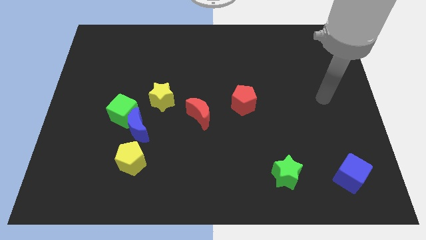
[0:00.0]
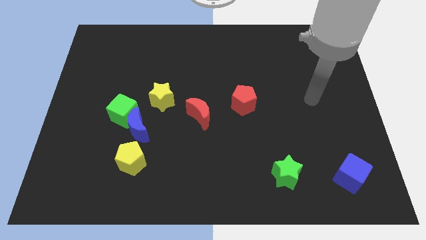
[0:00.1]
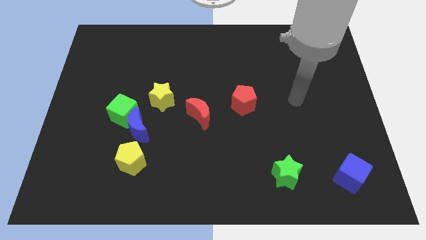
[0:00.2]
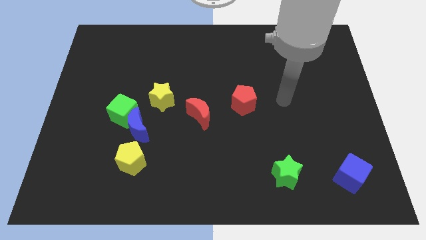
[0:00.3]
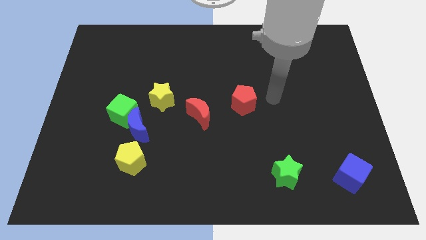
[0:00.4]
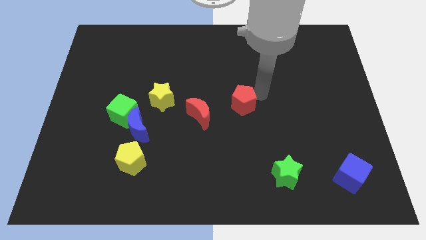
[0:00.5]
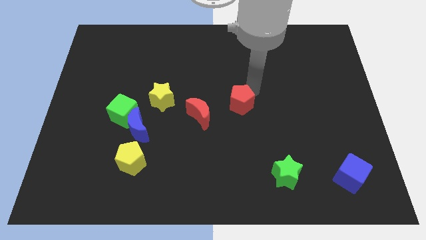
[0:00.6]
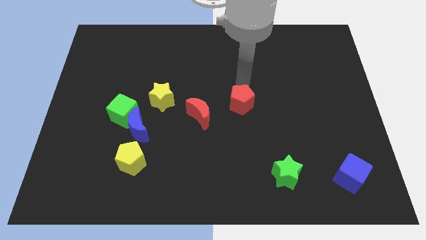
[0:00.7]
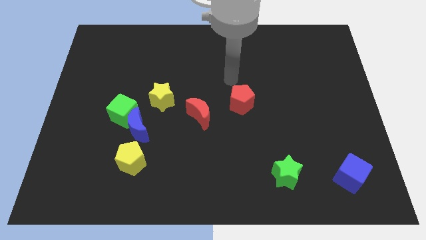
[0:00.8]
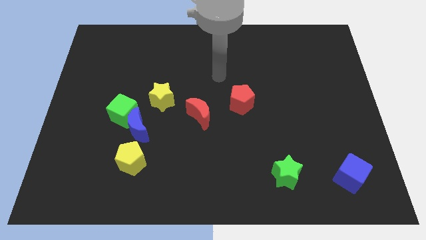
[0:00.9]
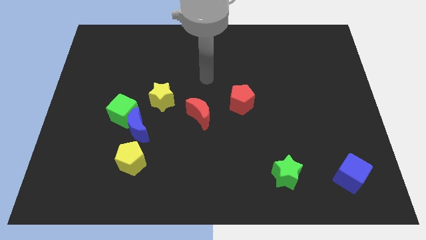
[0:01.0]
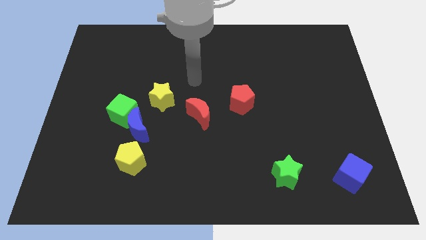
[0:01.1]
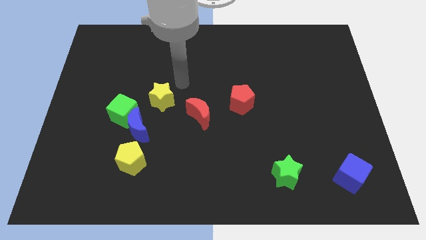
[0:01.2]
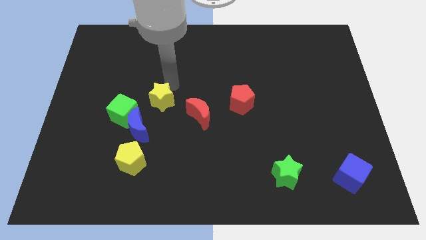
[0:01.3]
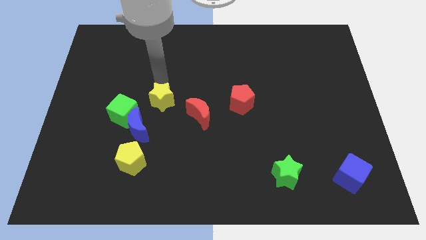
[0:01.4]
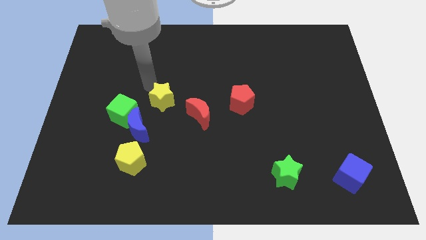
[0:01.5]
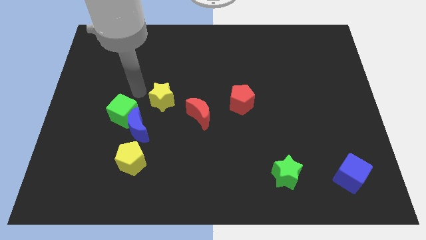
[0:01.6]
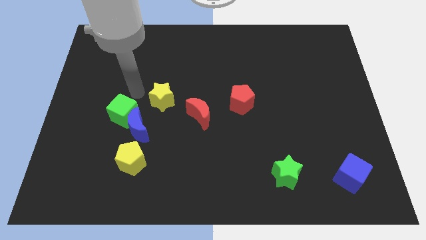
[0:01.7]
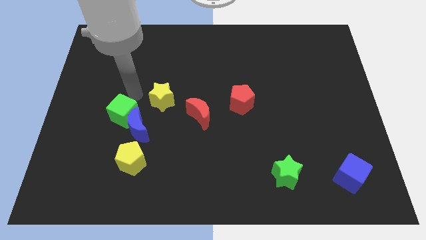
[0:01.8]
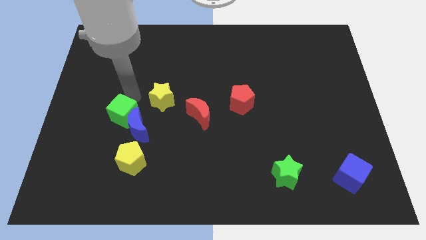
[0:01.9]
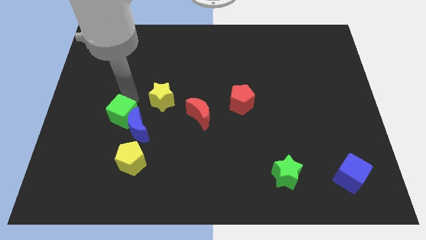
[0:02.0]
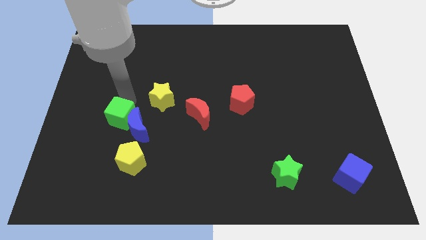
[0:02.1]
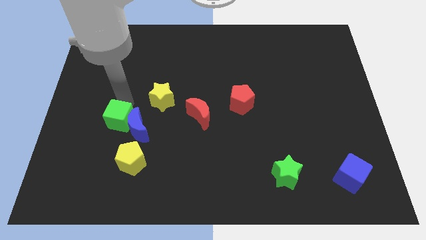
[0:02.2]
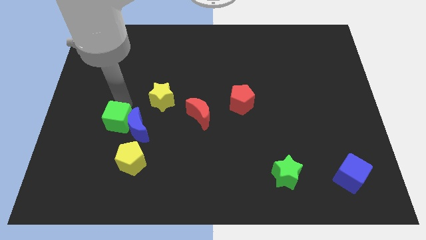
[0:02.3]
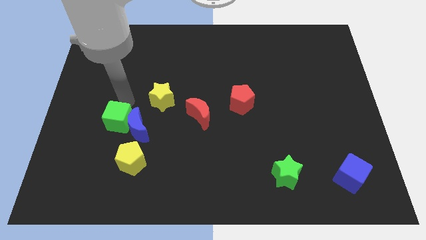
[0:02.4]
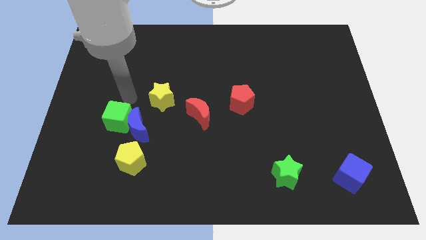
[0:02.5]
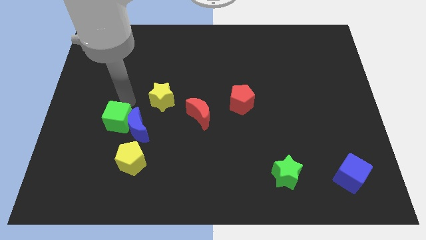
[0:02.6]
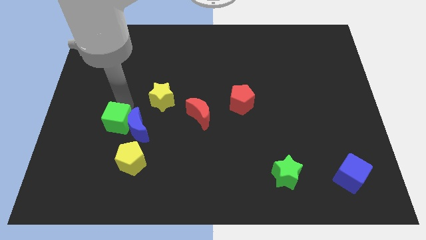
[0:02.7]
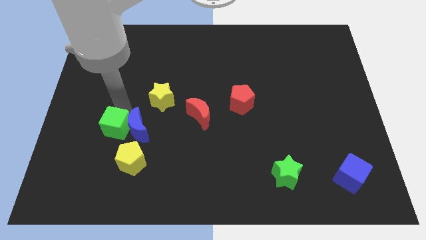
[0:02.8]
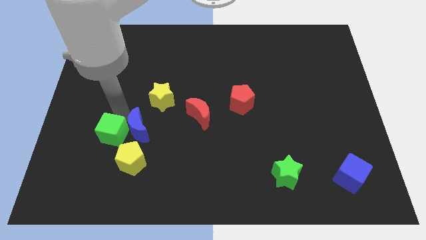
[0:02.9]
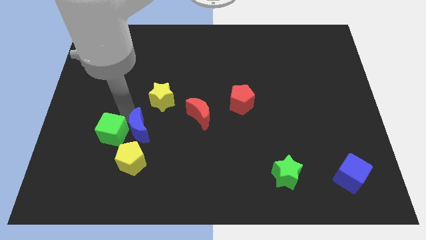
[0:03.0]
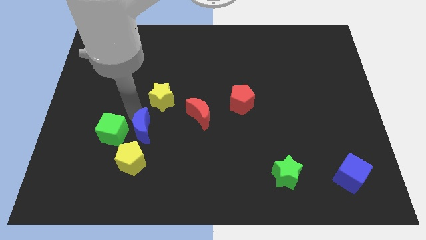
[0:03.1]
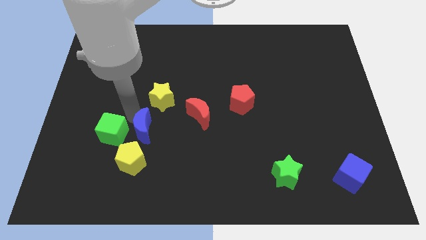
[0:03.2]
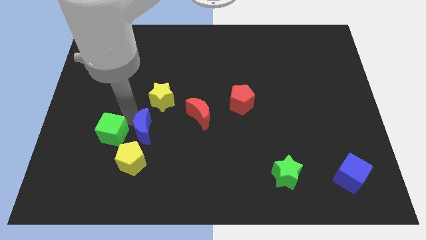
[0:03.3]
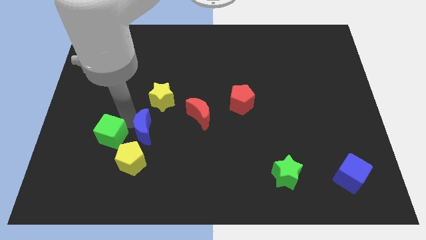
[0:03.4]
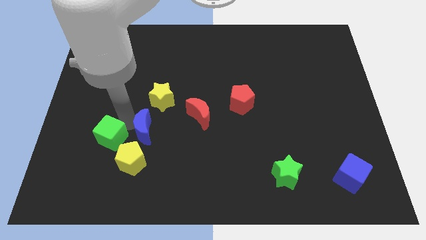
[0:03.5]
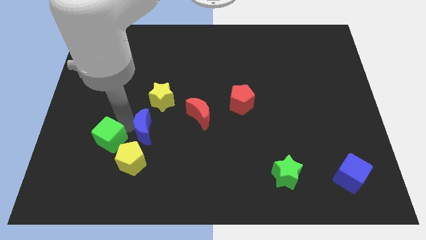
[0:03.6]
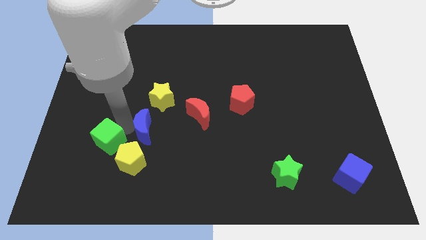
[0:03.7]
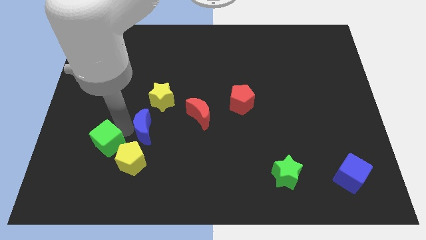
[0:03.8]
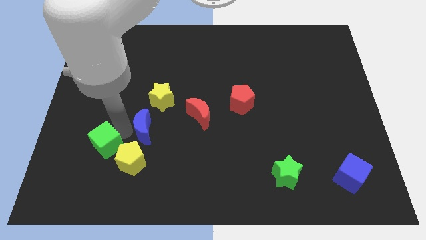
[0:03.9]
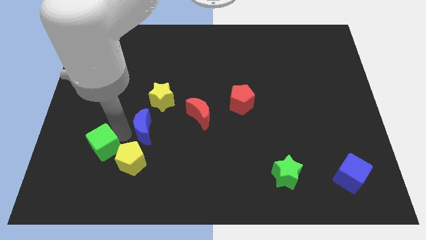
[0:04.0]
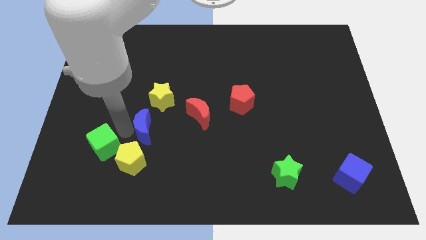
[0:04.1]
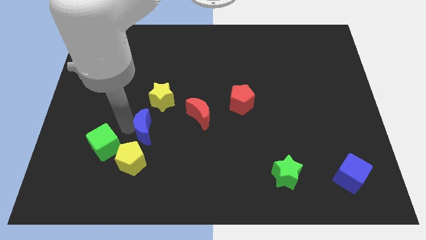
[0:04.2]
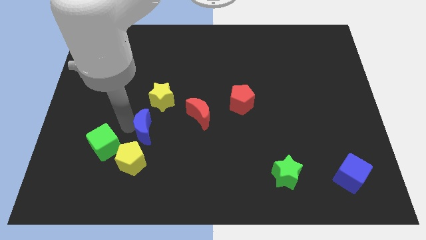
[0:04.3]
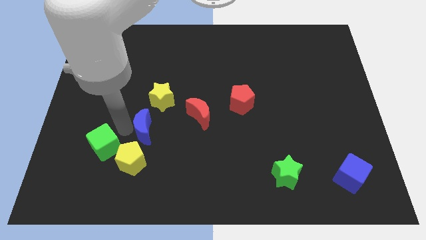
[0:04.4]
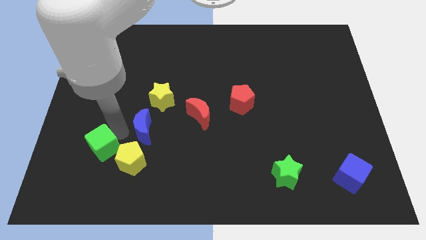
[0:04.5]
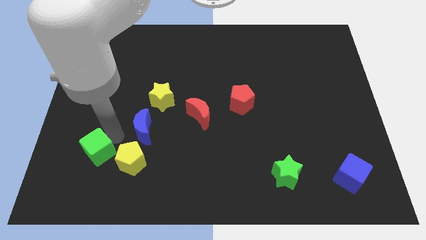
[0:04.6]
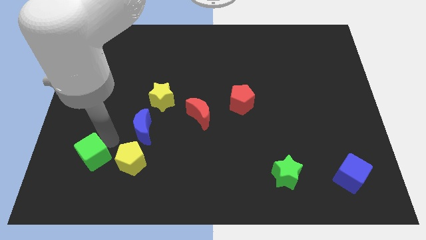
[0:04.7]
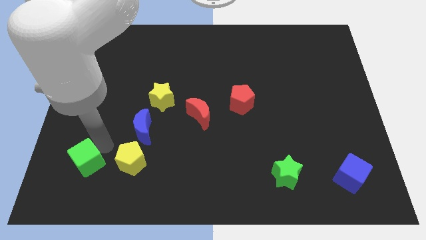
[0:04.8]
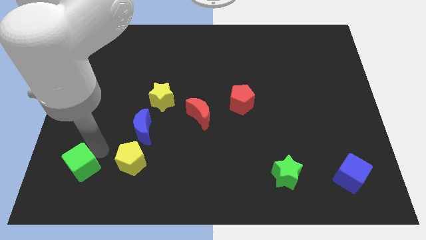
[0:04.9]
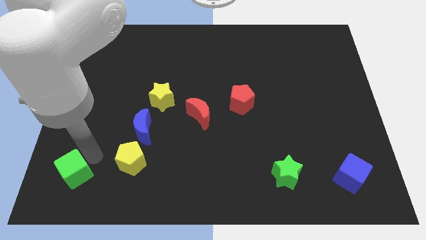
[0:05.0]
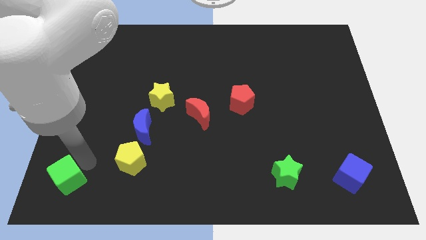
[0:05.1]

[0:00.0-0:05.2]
push the green cube to the bottom left of the board
